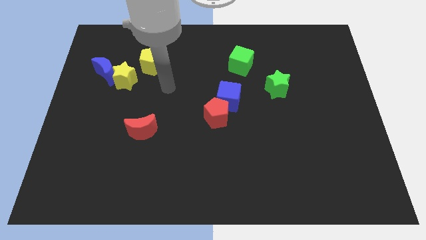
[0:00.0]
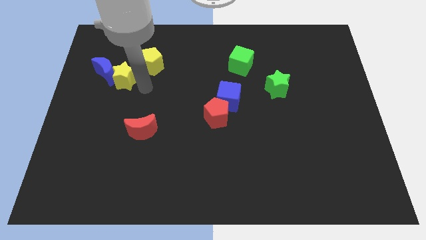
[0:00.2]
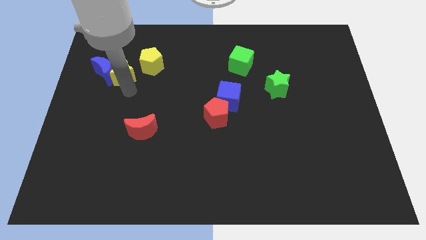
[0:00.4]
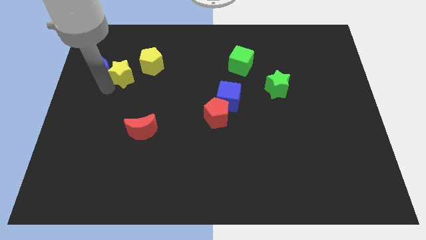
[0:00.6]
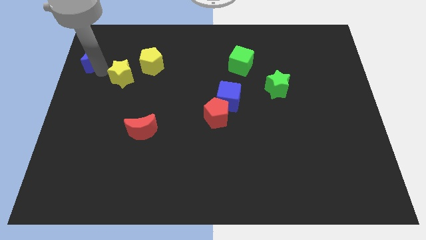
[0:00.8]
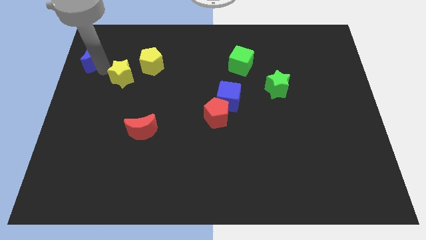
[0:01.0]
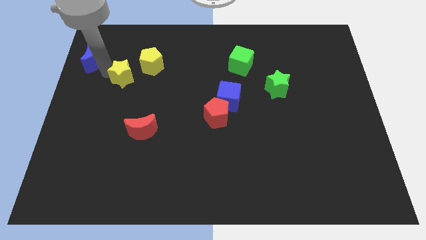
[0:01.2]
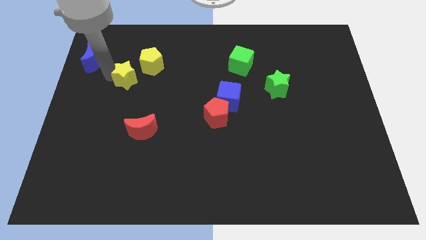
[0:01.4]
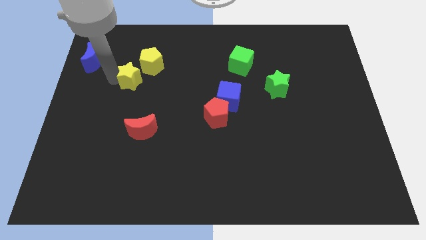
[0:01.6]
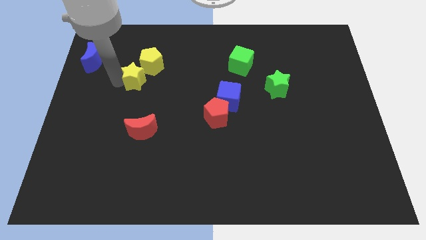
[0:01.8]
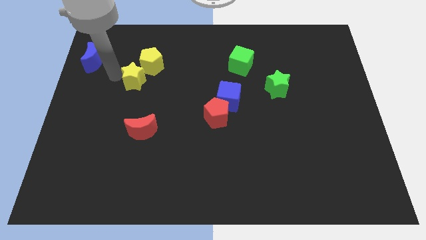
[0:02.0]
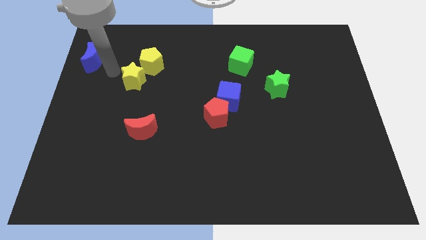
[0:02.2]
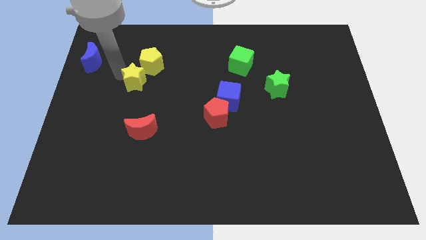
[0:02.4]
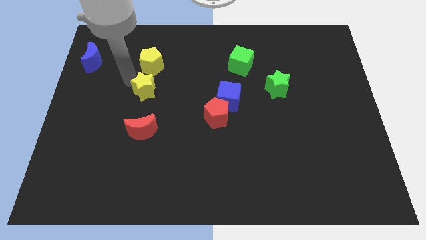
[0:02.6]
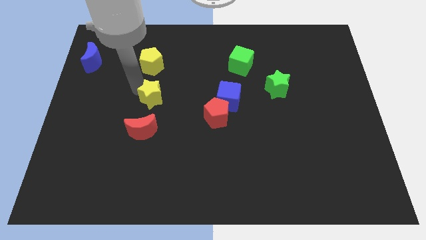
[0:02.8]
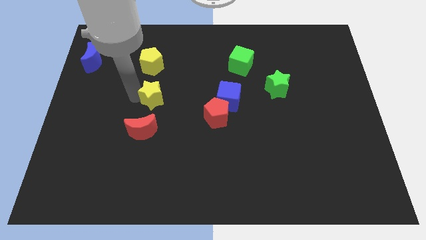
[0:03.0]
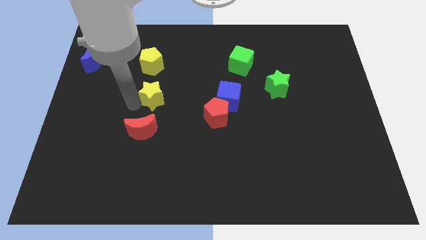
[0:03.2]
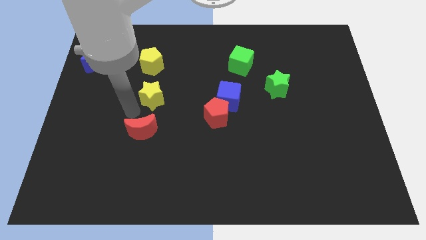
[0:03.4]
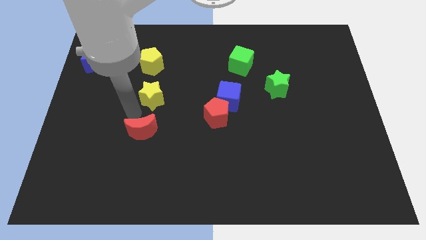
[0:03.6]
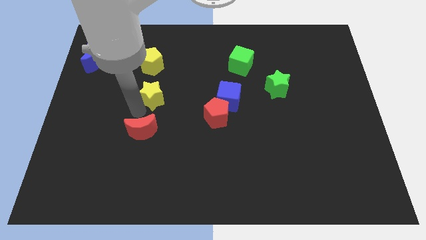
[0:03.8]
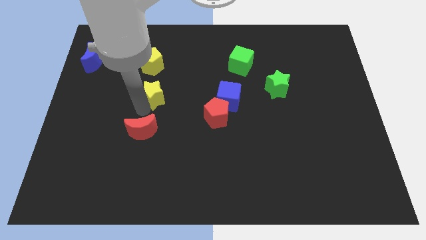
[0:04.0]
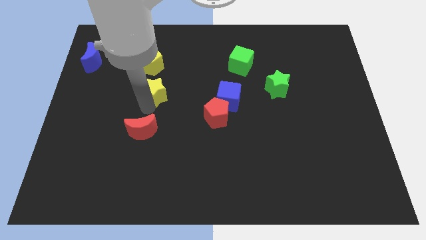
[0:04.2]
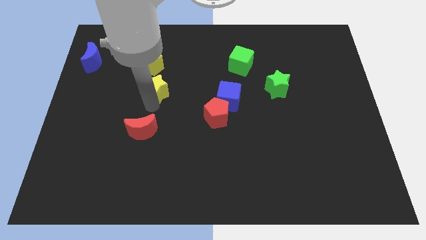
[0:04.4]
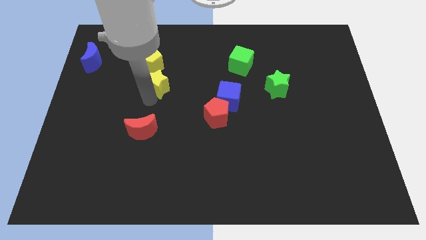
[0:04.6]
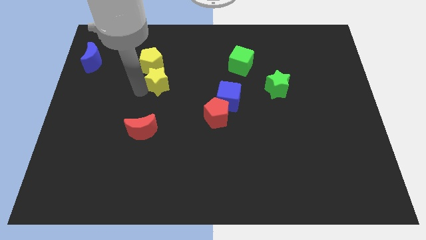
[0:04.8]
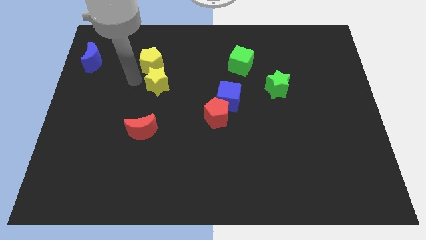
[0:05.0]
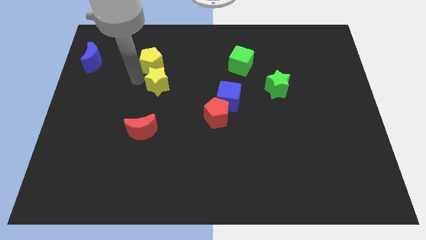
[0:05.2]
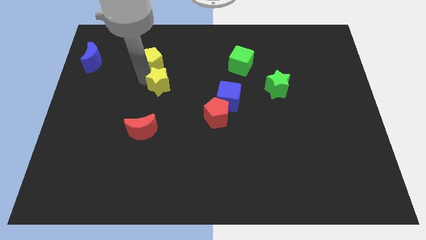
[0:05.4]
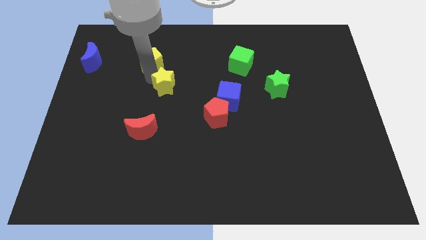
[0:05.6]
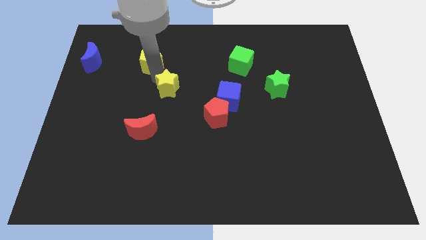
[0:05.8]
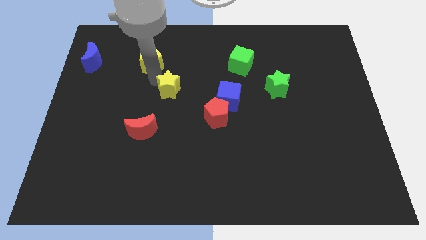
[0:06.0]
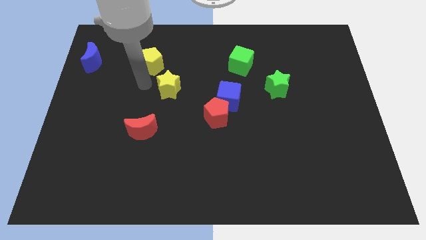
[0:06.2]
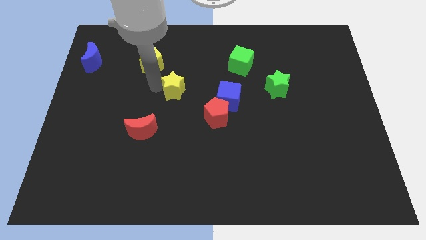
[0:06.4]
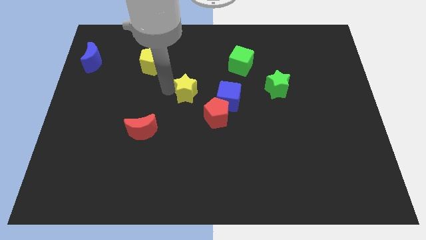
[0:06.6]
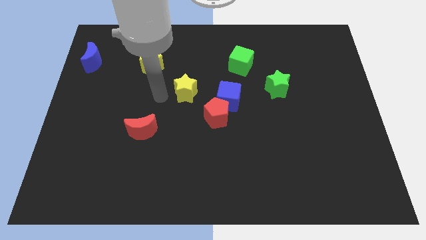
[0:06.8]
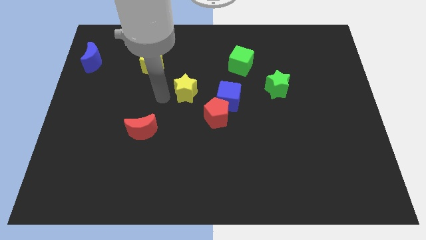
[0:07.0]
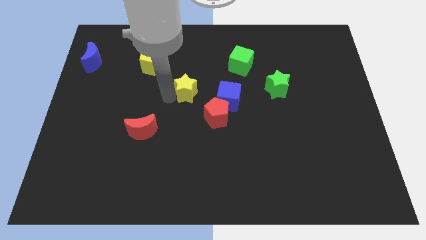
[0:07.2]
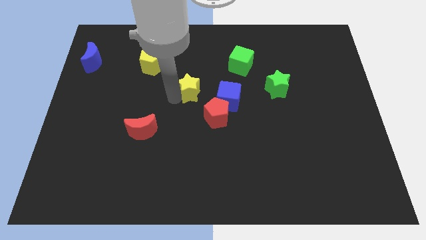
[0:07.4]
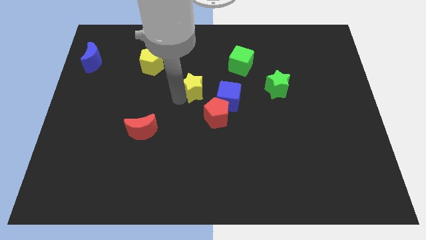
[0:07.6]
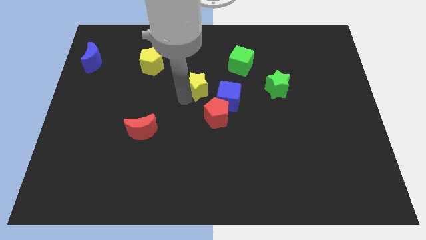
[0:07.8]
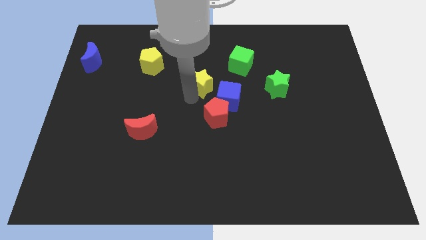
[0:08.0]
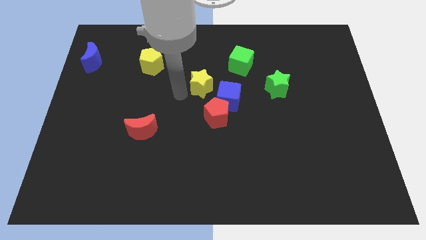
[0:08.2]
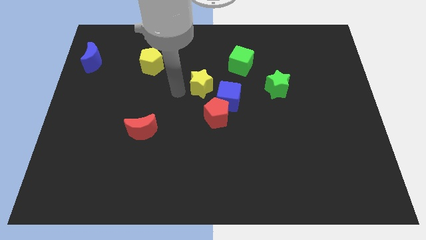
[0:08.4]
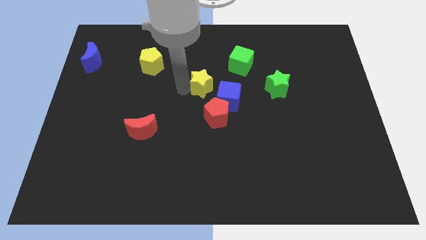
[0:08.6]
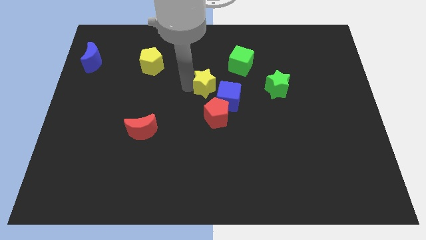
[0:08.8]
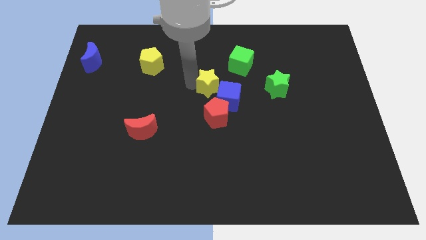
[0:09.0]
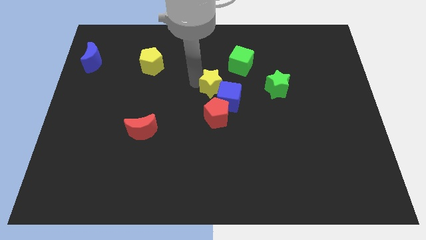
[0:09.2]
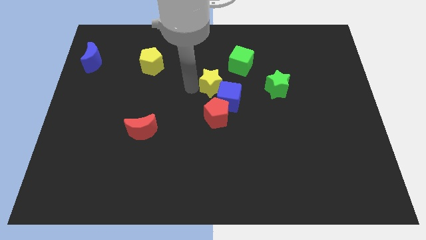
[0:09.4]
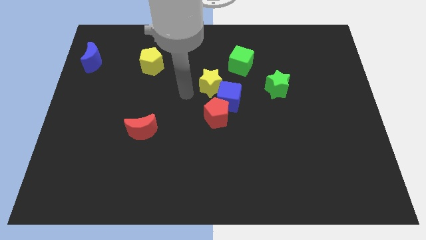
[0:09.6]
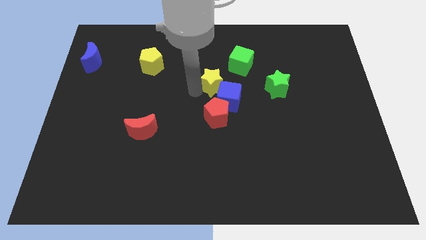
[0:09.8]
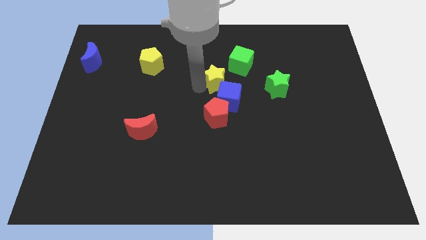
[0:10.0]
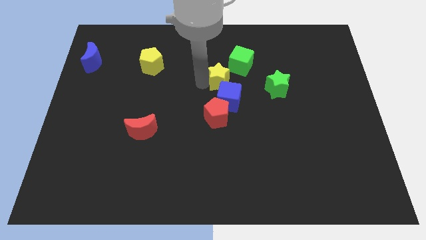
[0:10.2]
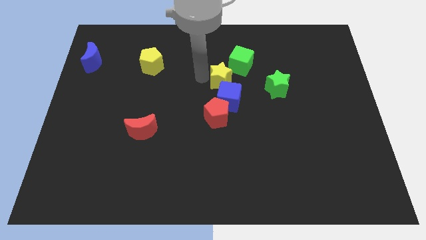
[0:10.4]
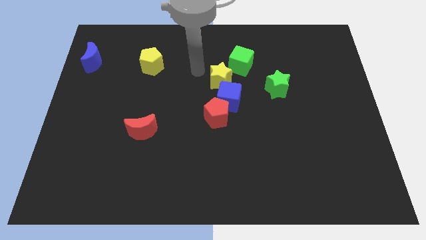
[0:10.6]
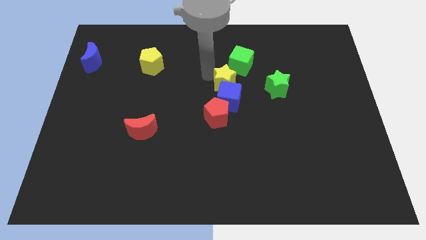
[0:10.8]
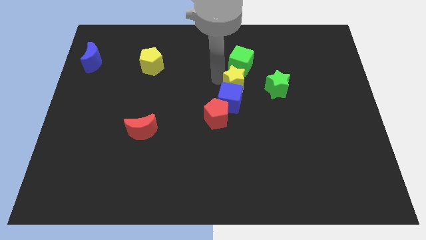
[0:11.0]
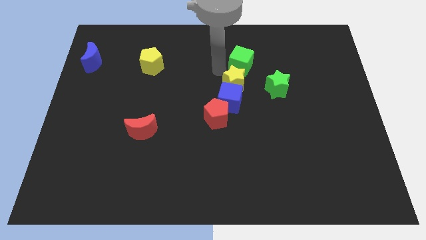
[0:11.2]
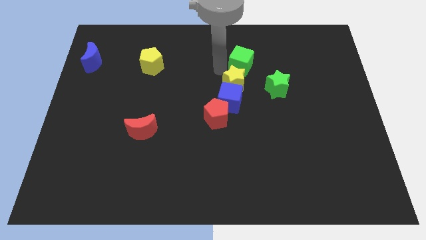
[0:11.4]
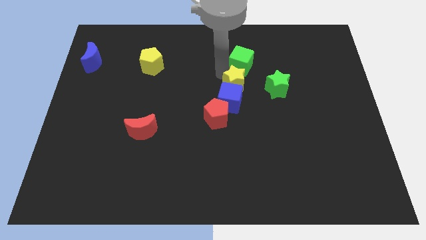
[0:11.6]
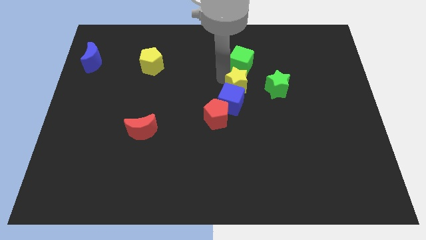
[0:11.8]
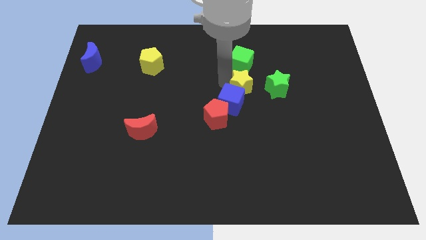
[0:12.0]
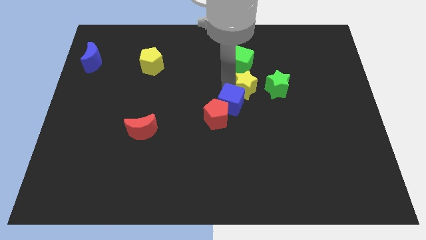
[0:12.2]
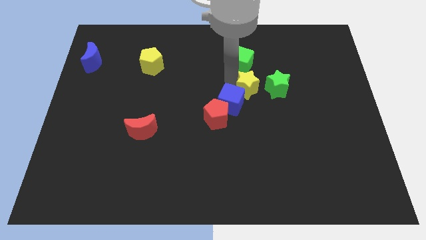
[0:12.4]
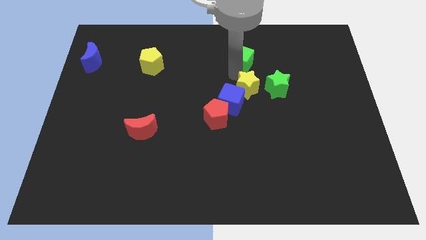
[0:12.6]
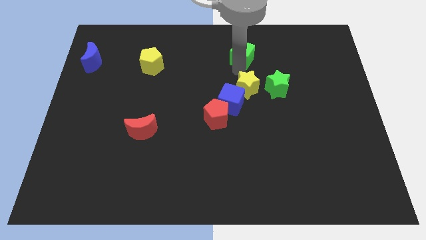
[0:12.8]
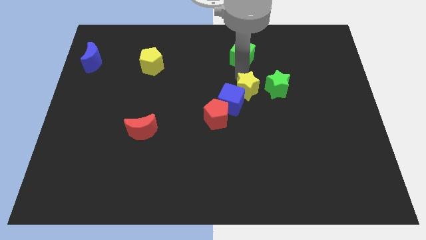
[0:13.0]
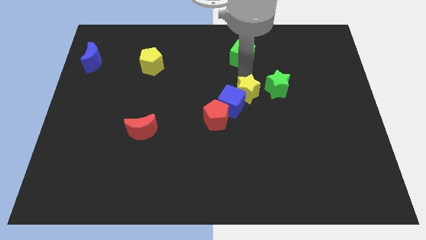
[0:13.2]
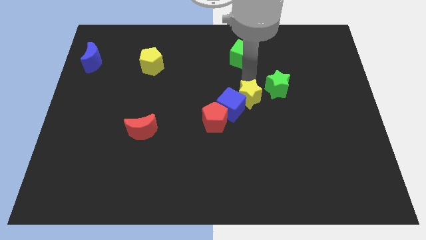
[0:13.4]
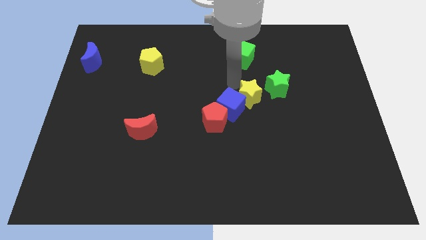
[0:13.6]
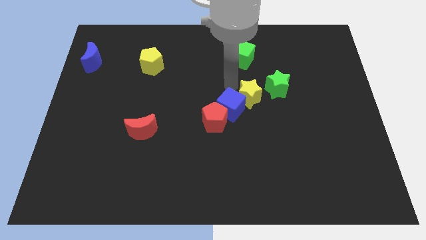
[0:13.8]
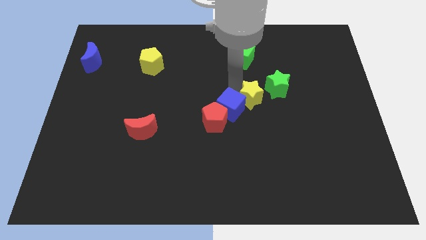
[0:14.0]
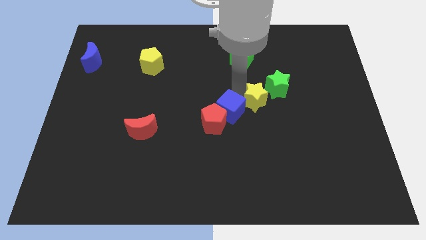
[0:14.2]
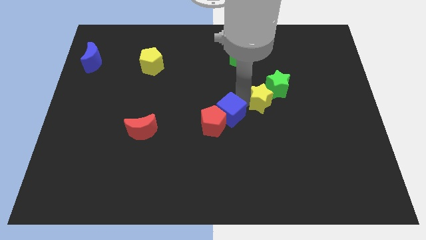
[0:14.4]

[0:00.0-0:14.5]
push the yellow star to the bottom of the green star

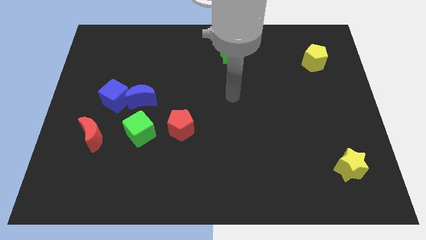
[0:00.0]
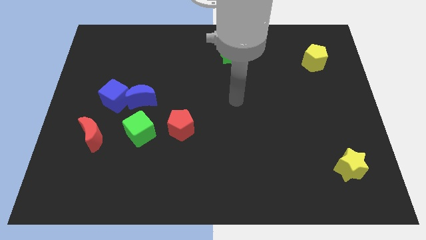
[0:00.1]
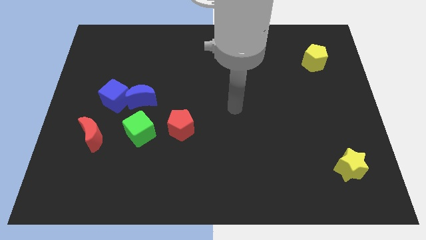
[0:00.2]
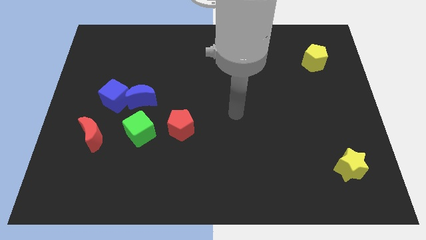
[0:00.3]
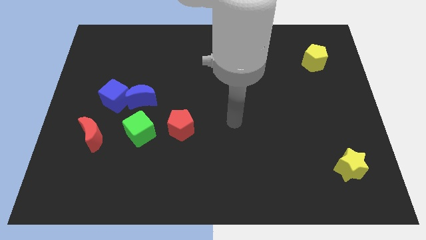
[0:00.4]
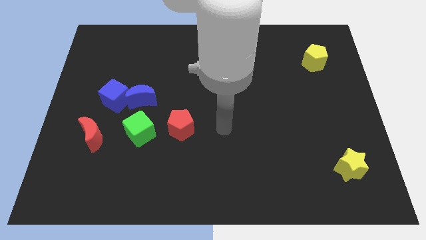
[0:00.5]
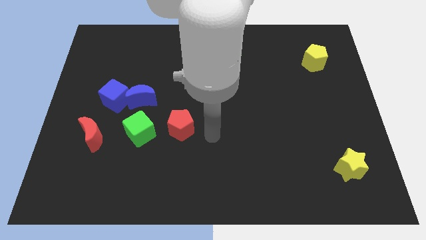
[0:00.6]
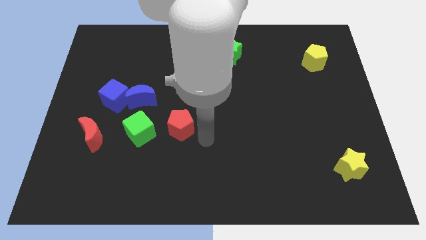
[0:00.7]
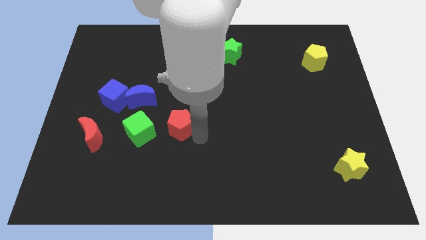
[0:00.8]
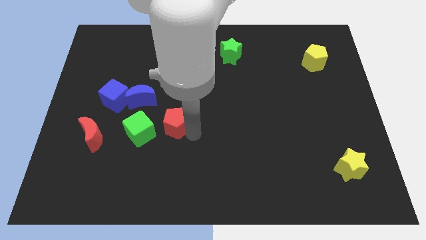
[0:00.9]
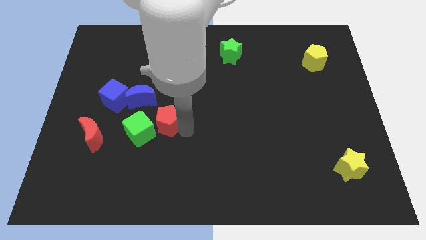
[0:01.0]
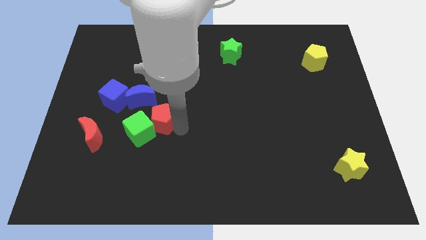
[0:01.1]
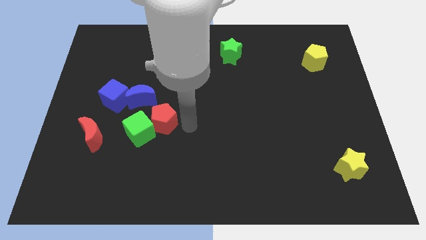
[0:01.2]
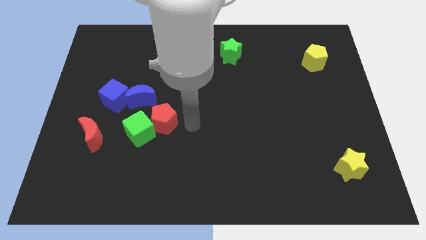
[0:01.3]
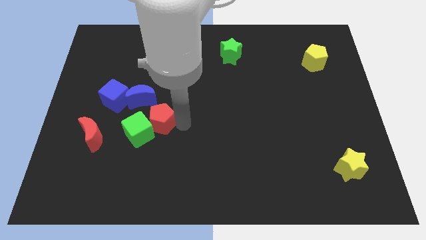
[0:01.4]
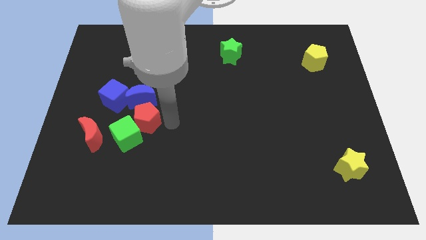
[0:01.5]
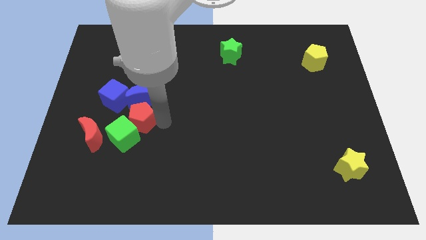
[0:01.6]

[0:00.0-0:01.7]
push the red pentagon diagonally down and to the left of the blue moon
